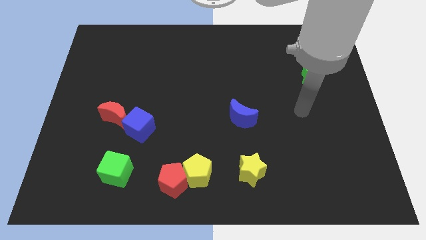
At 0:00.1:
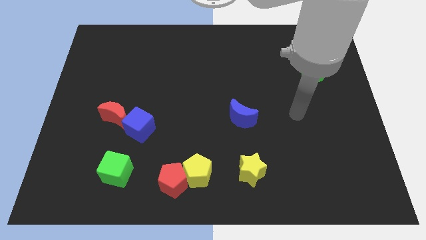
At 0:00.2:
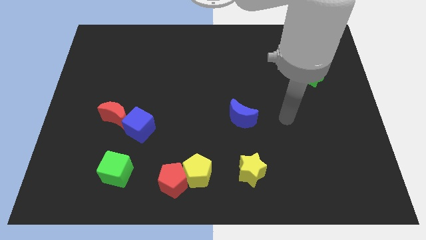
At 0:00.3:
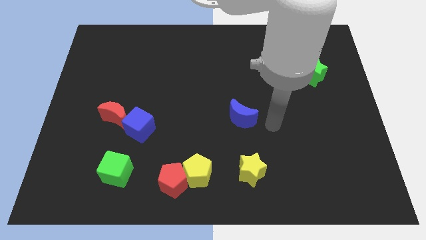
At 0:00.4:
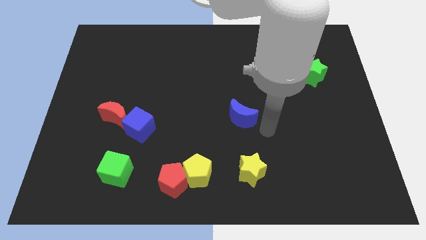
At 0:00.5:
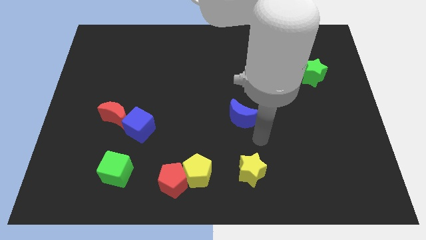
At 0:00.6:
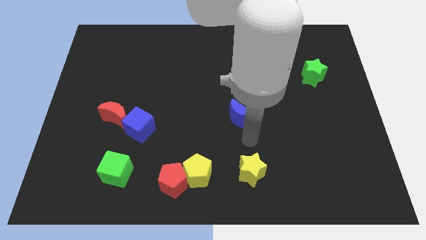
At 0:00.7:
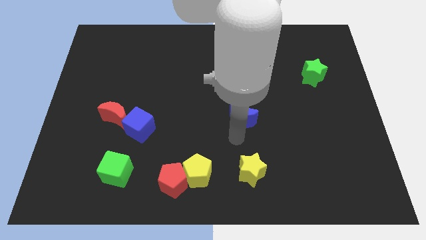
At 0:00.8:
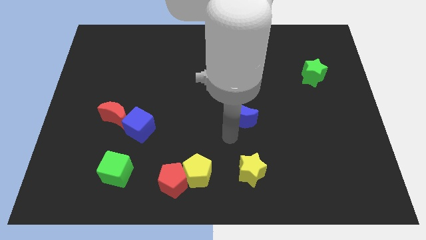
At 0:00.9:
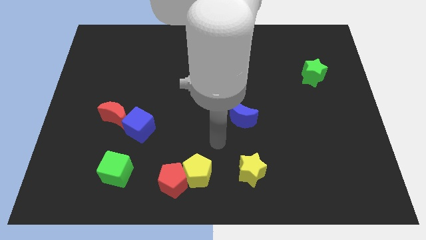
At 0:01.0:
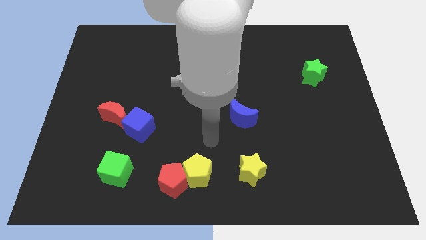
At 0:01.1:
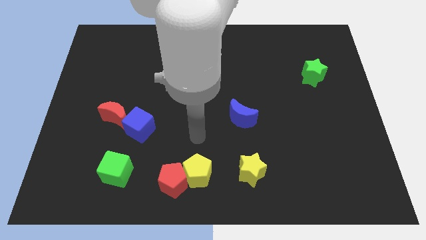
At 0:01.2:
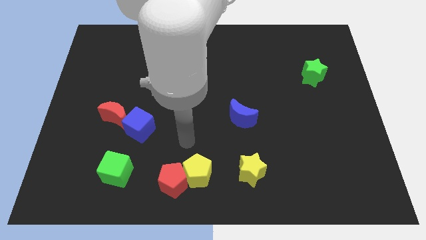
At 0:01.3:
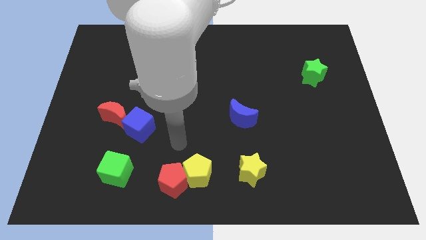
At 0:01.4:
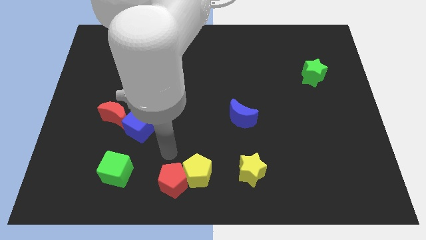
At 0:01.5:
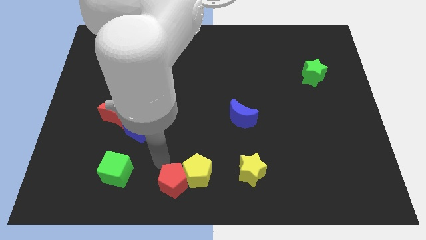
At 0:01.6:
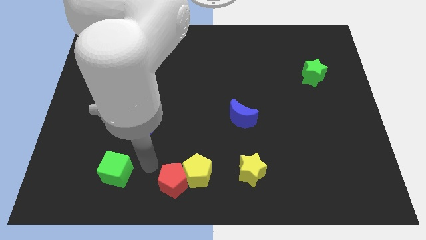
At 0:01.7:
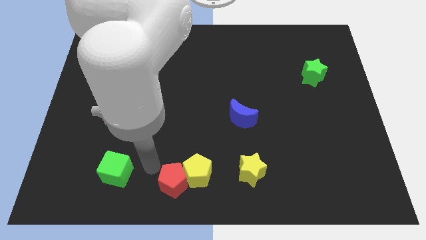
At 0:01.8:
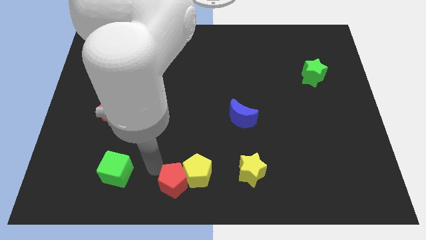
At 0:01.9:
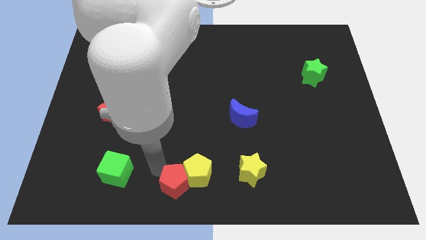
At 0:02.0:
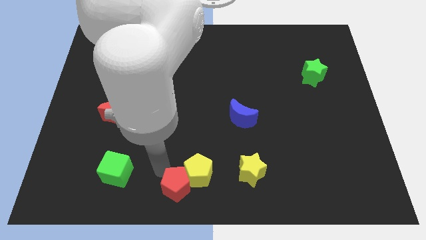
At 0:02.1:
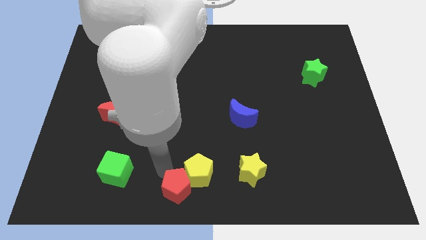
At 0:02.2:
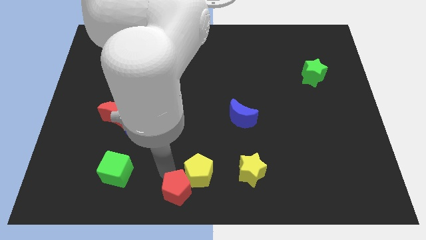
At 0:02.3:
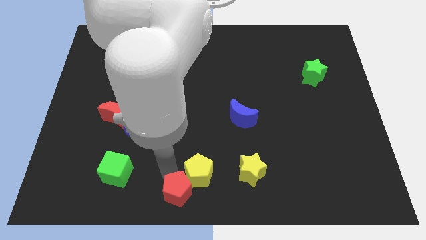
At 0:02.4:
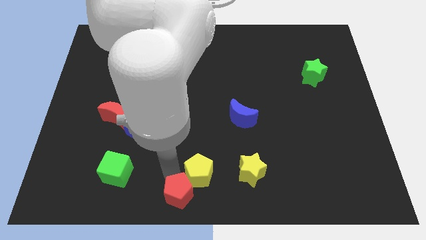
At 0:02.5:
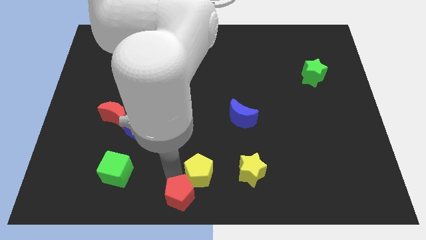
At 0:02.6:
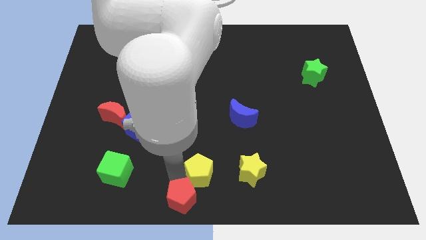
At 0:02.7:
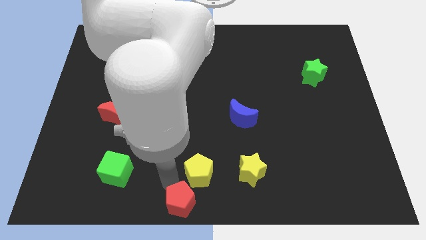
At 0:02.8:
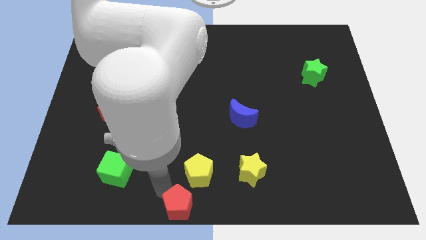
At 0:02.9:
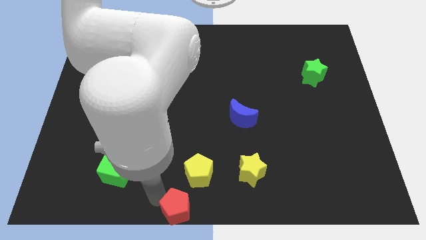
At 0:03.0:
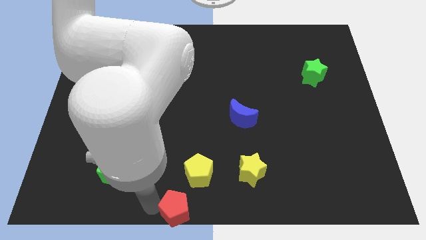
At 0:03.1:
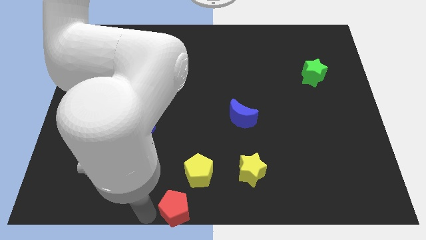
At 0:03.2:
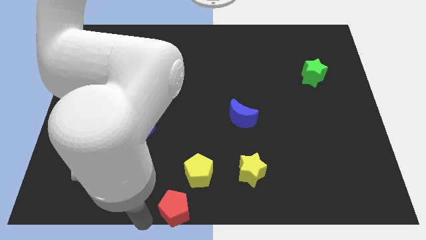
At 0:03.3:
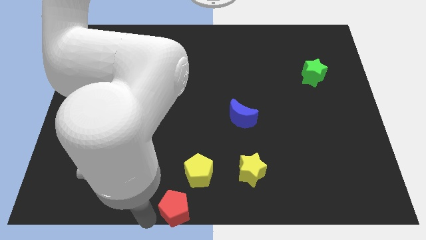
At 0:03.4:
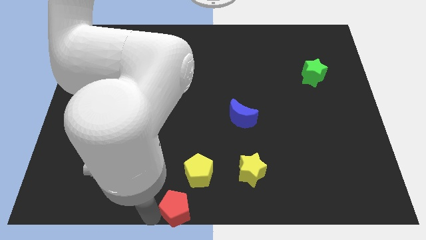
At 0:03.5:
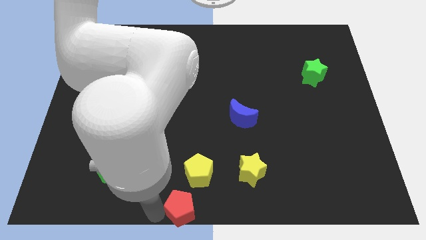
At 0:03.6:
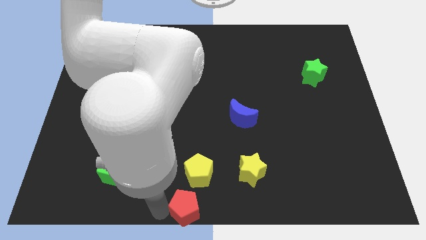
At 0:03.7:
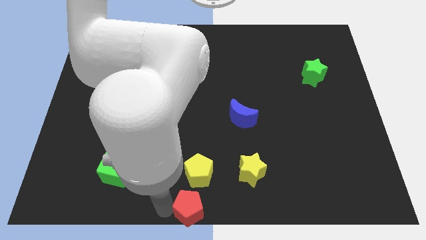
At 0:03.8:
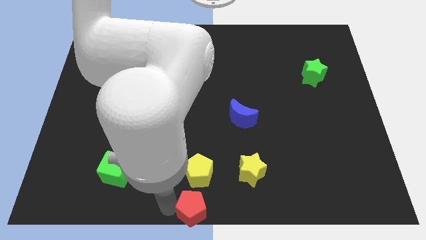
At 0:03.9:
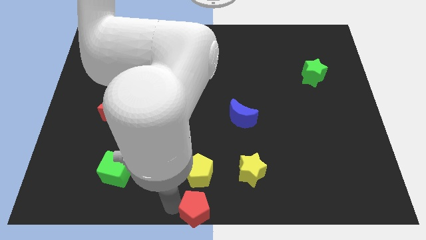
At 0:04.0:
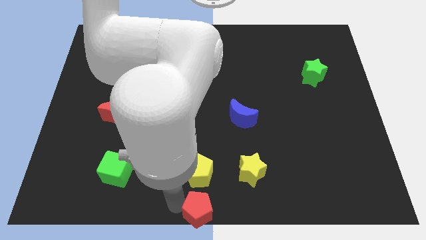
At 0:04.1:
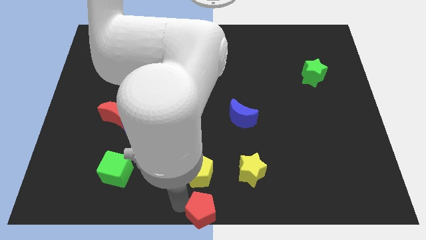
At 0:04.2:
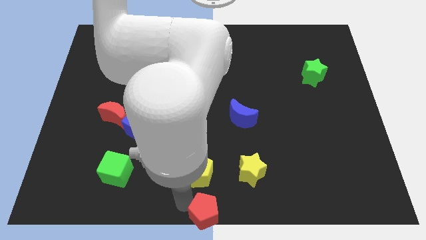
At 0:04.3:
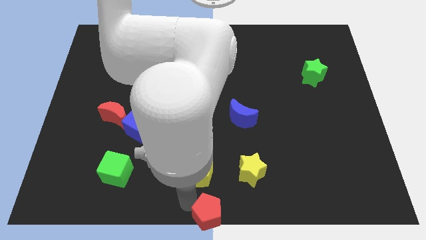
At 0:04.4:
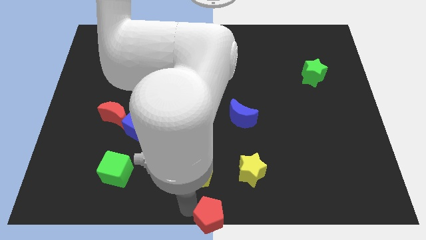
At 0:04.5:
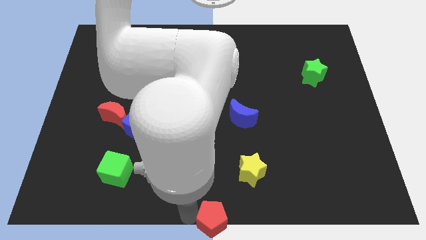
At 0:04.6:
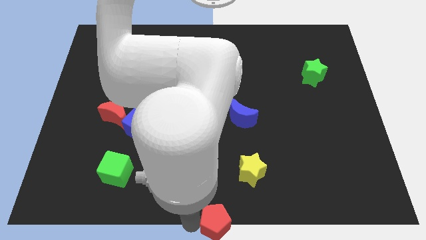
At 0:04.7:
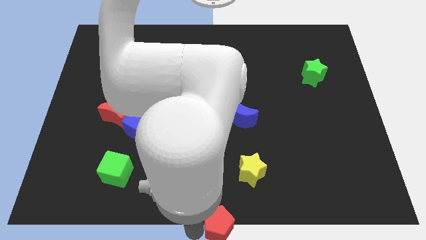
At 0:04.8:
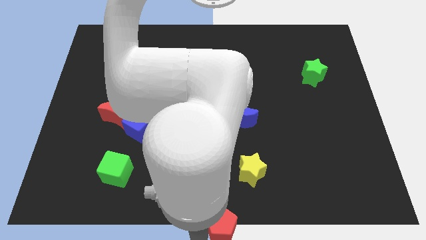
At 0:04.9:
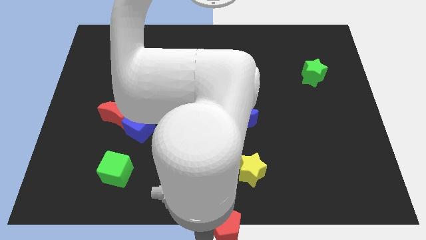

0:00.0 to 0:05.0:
push the red pentagon to the right a little

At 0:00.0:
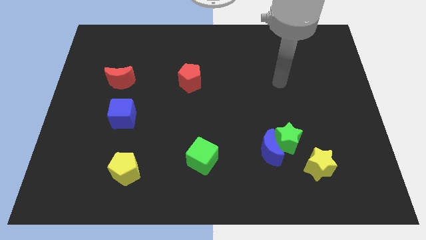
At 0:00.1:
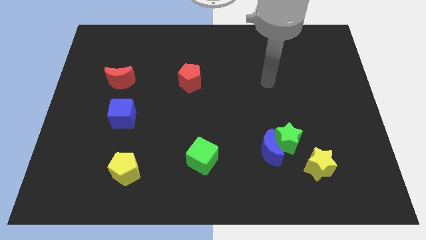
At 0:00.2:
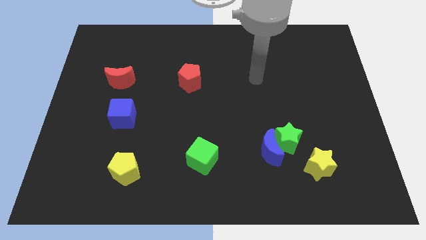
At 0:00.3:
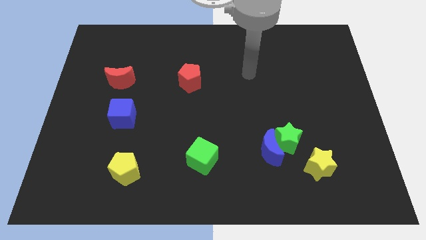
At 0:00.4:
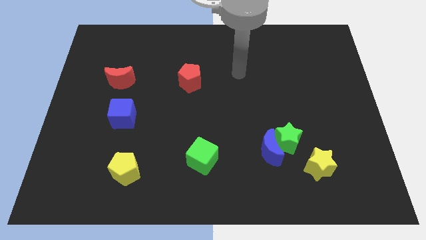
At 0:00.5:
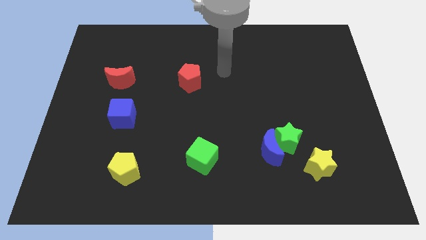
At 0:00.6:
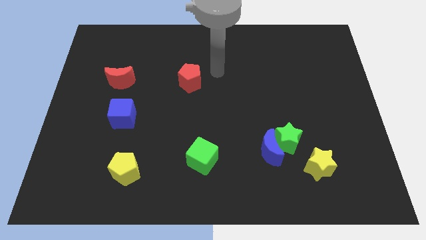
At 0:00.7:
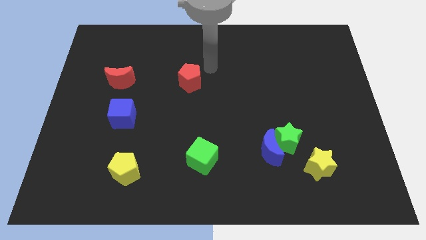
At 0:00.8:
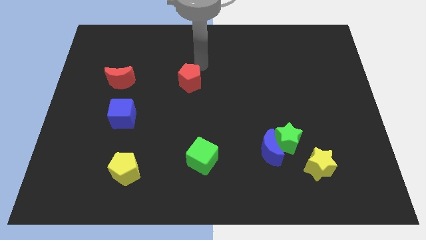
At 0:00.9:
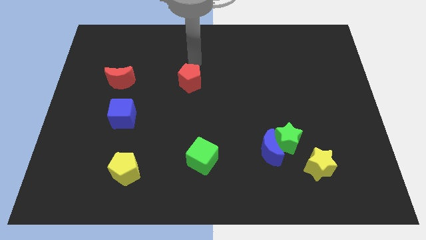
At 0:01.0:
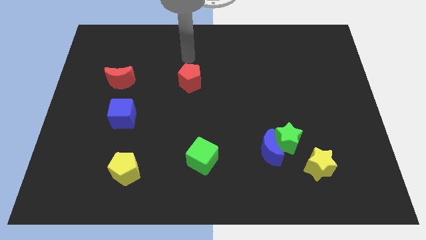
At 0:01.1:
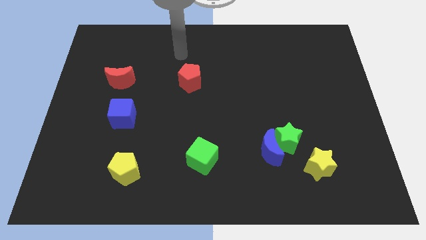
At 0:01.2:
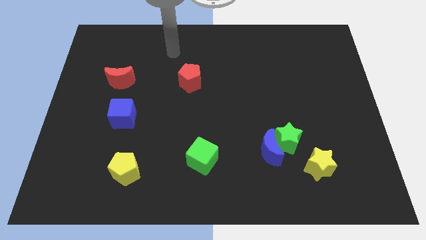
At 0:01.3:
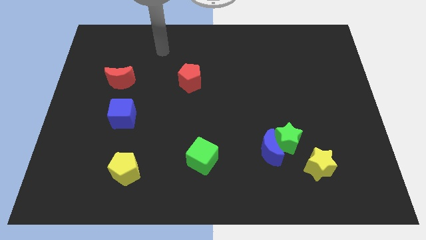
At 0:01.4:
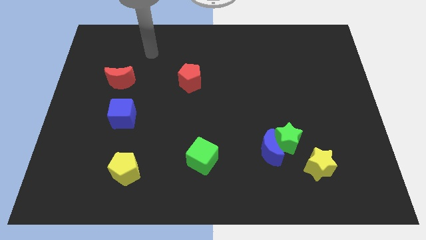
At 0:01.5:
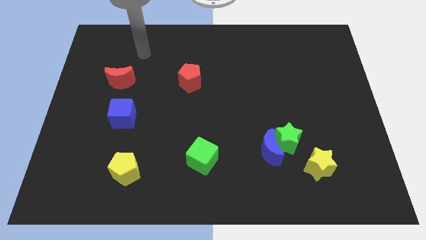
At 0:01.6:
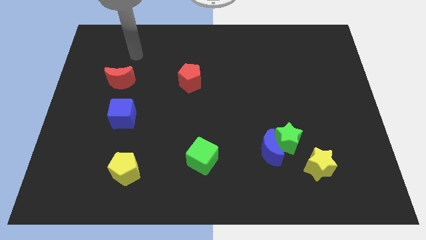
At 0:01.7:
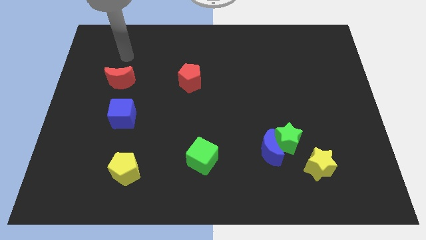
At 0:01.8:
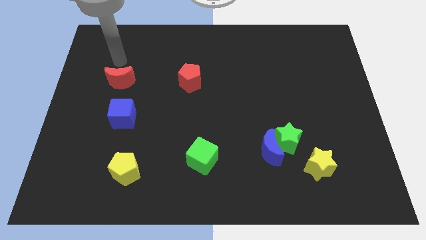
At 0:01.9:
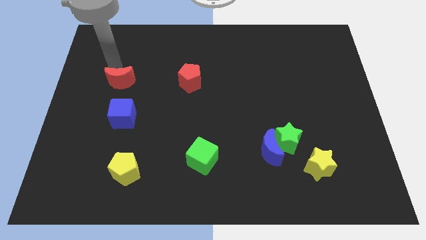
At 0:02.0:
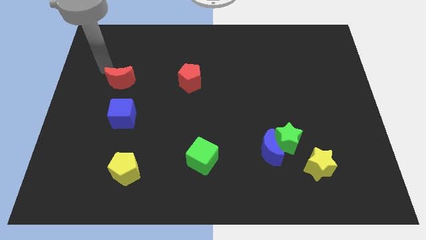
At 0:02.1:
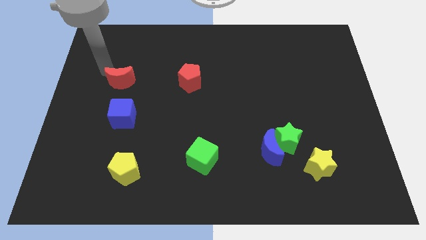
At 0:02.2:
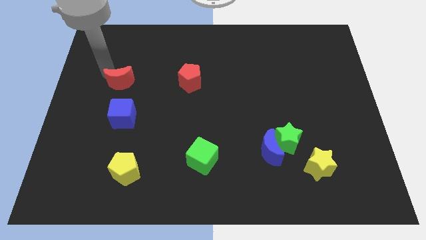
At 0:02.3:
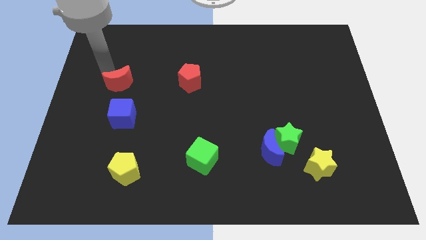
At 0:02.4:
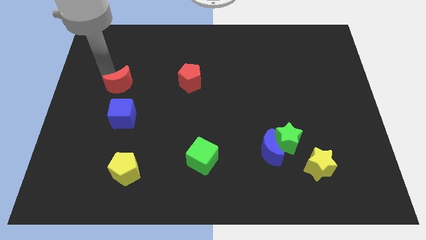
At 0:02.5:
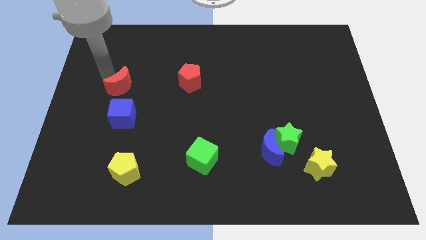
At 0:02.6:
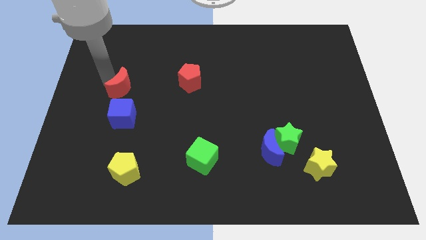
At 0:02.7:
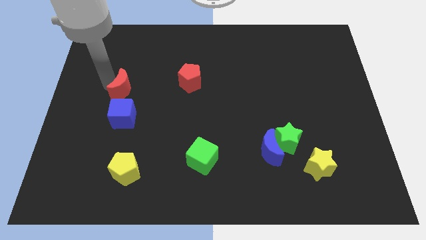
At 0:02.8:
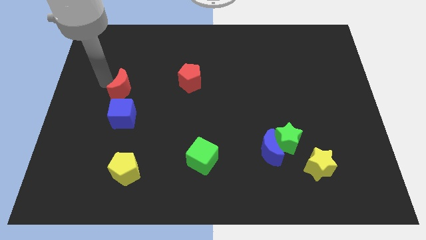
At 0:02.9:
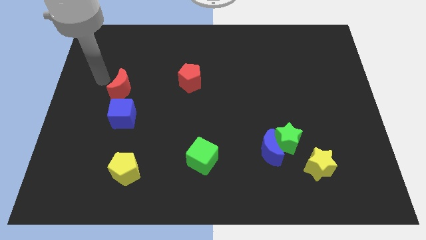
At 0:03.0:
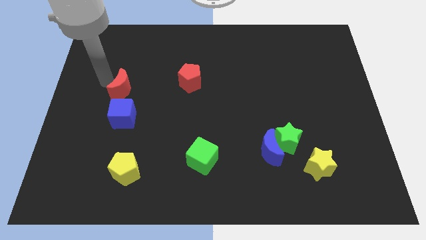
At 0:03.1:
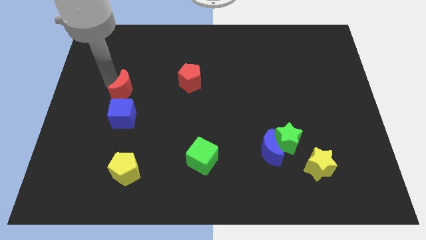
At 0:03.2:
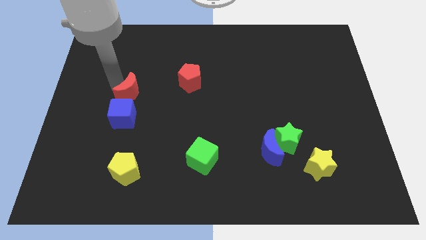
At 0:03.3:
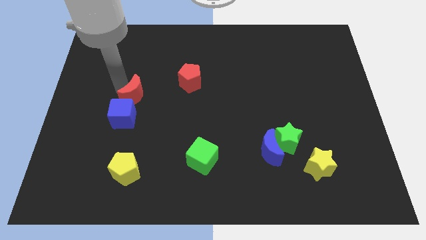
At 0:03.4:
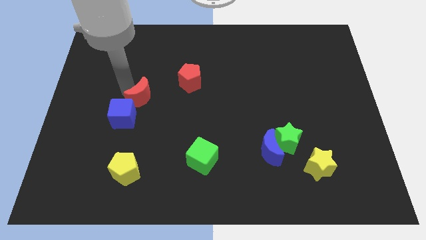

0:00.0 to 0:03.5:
slightly move the red moon down and right

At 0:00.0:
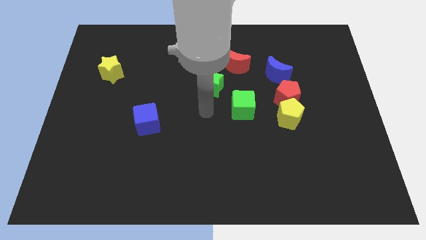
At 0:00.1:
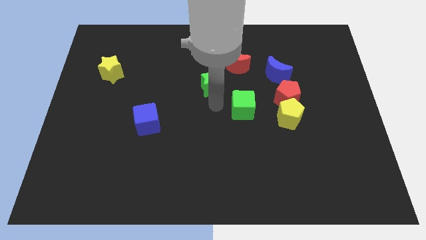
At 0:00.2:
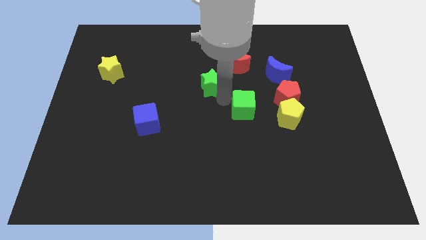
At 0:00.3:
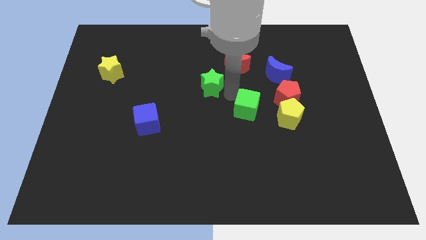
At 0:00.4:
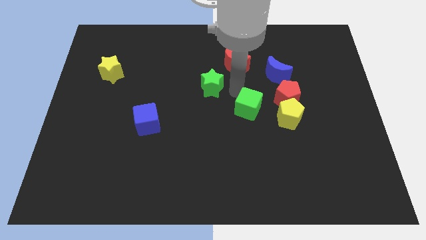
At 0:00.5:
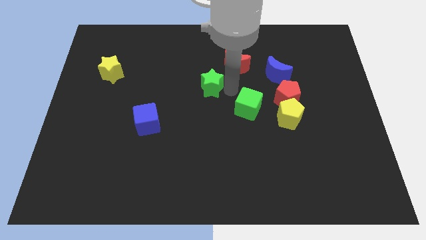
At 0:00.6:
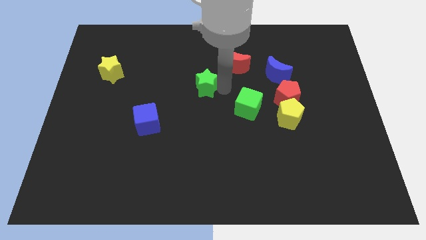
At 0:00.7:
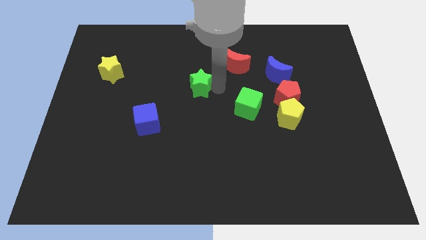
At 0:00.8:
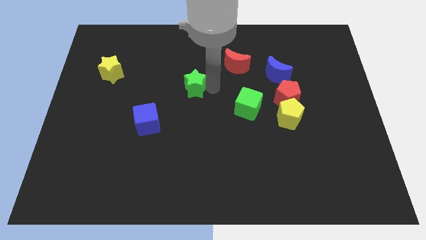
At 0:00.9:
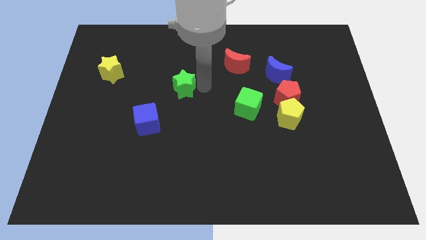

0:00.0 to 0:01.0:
slide the green star to the left slightly
